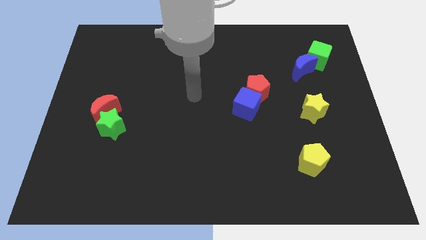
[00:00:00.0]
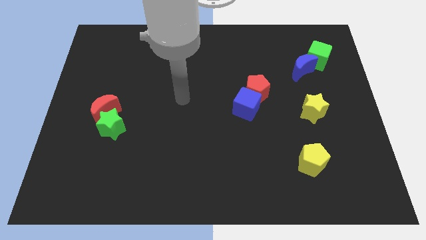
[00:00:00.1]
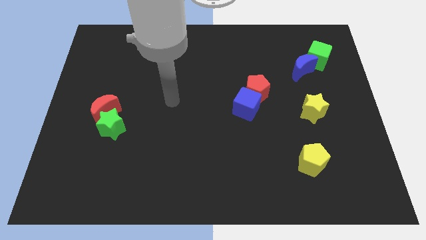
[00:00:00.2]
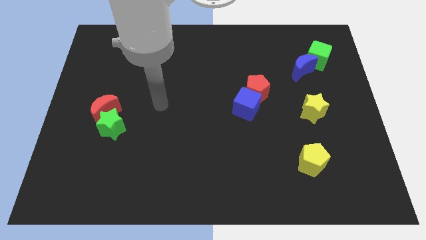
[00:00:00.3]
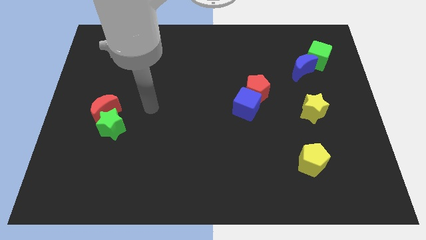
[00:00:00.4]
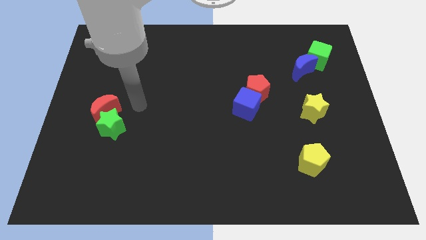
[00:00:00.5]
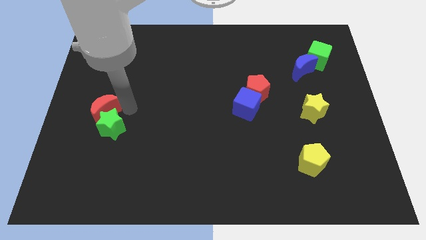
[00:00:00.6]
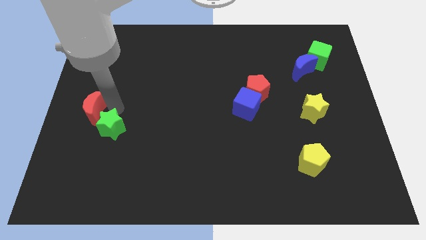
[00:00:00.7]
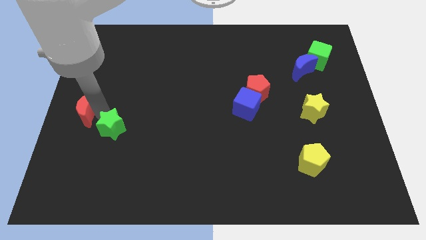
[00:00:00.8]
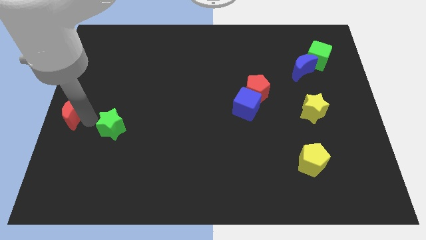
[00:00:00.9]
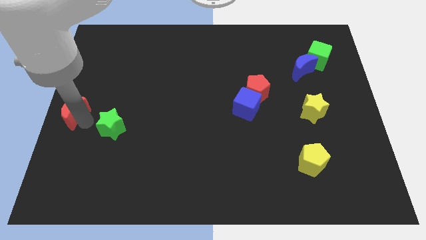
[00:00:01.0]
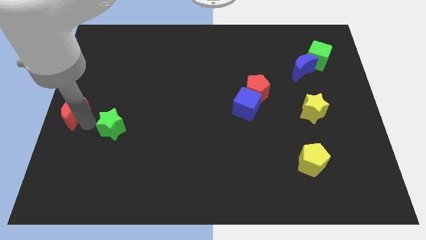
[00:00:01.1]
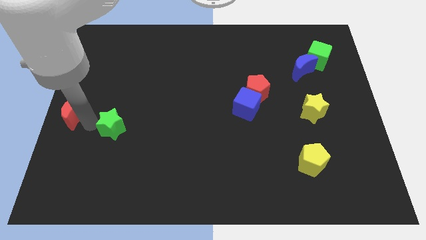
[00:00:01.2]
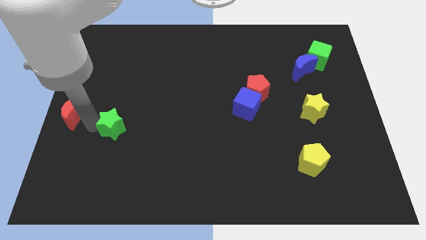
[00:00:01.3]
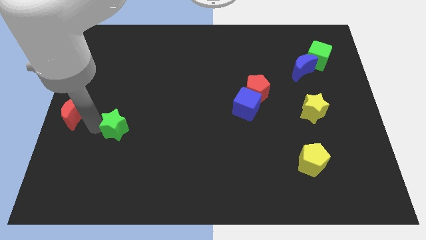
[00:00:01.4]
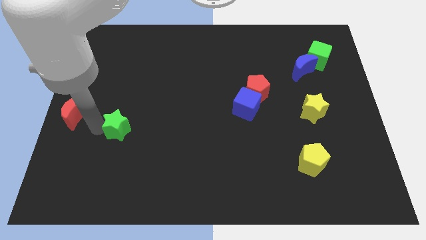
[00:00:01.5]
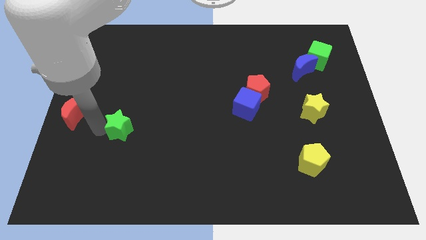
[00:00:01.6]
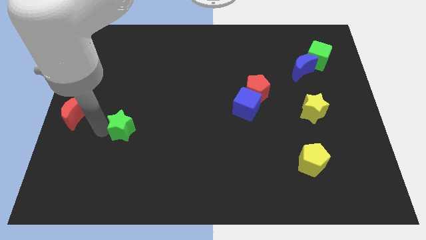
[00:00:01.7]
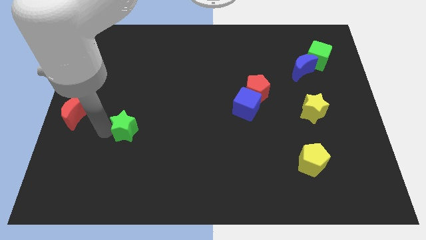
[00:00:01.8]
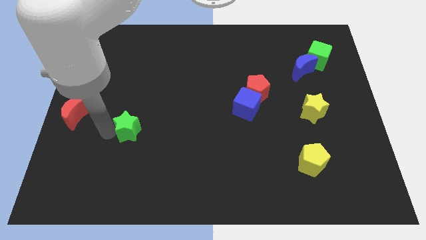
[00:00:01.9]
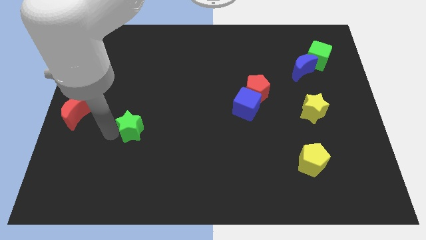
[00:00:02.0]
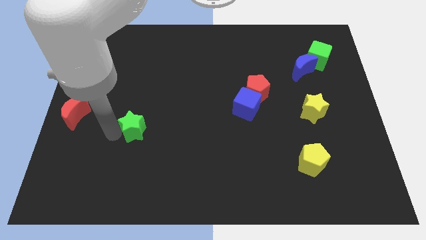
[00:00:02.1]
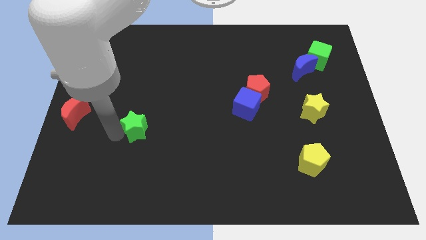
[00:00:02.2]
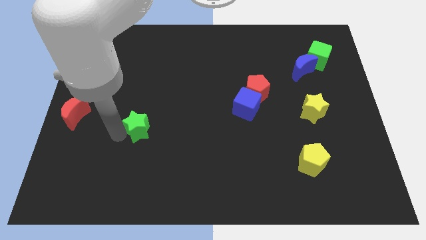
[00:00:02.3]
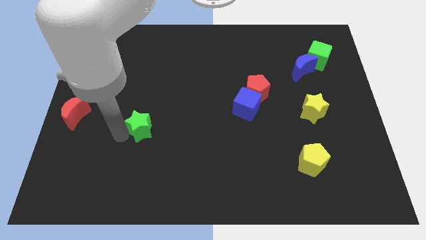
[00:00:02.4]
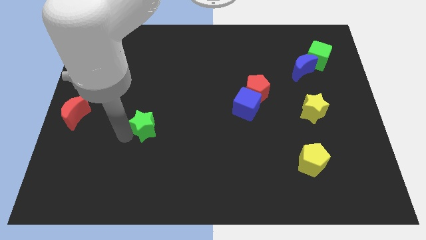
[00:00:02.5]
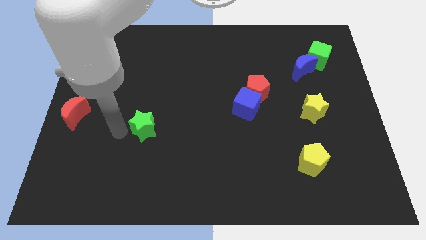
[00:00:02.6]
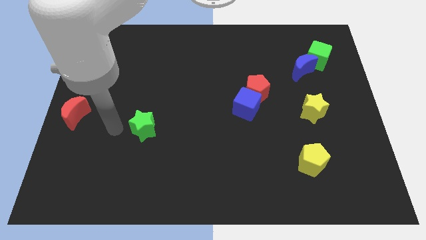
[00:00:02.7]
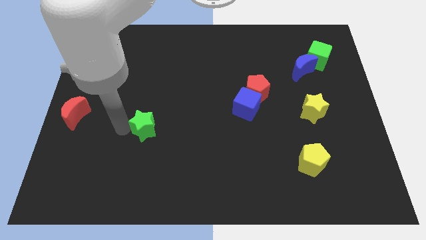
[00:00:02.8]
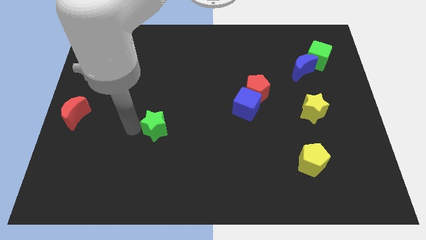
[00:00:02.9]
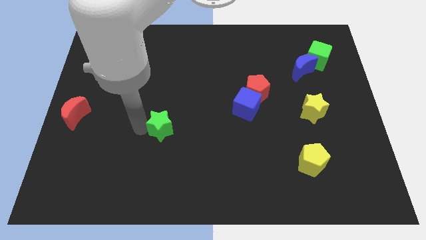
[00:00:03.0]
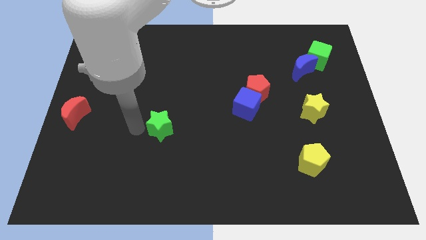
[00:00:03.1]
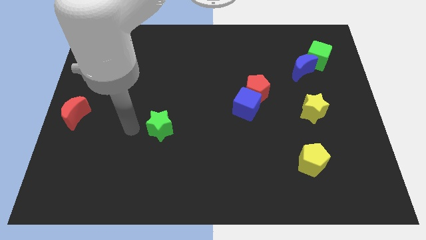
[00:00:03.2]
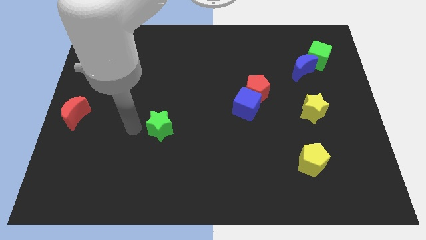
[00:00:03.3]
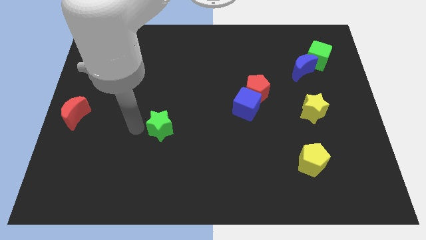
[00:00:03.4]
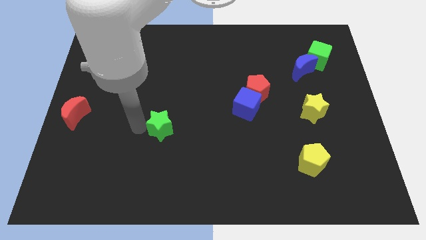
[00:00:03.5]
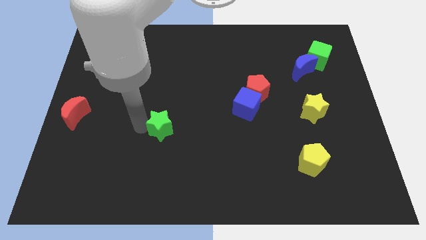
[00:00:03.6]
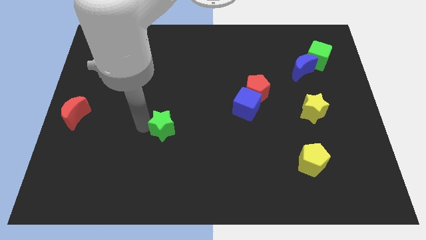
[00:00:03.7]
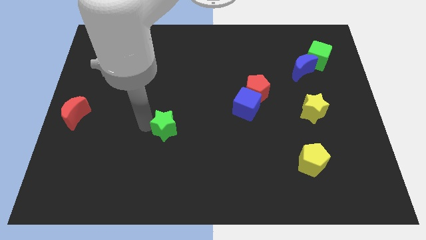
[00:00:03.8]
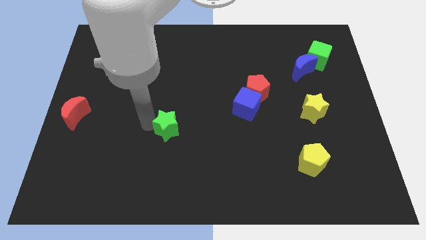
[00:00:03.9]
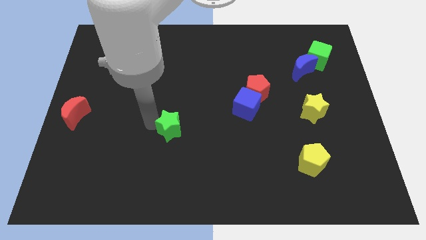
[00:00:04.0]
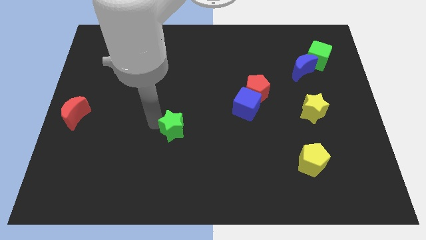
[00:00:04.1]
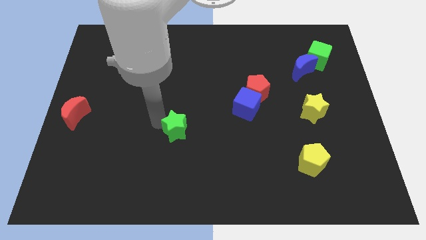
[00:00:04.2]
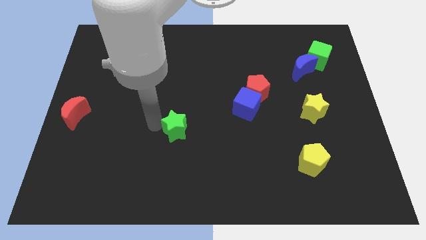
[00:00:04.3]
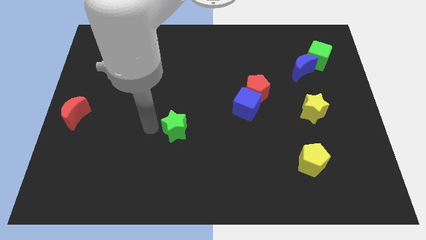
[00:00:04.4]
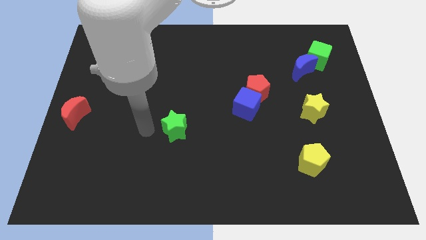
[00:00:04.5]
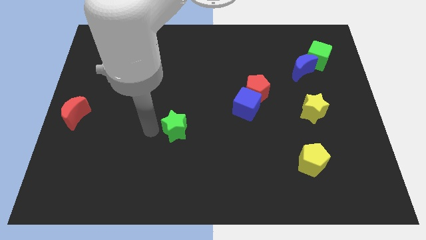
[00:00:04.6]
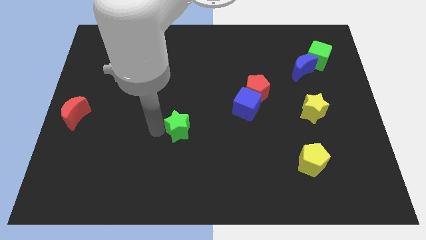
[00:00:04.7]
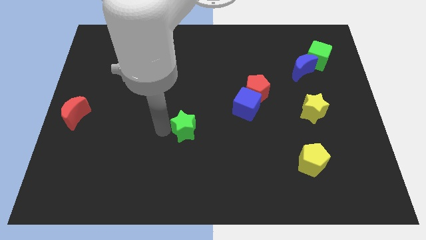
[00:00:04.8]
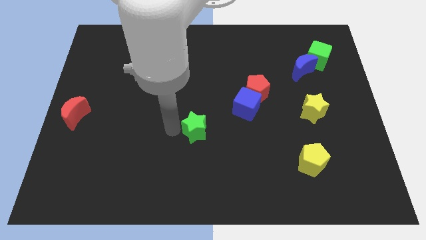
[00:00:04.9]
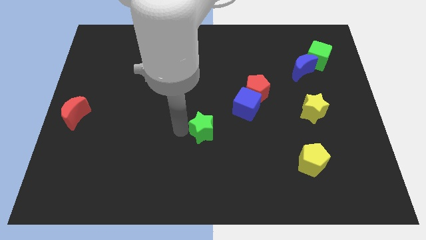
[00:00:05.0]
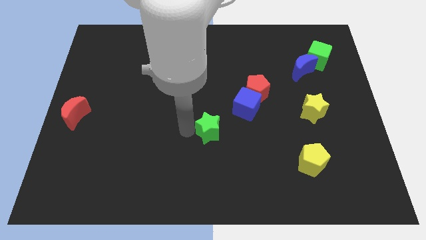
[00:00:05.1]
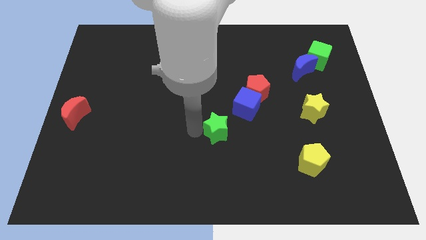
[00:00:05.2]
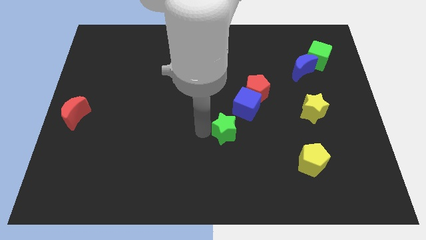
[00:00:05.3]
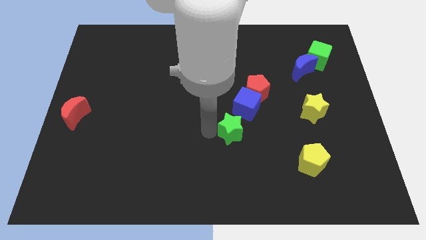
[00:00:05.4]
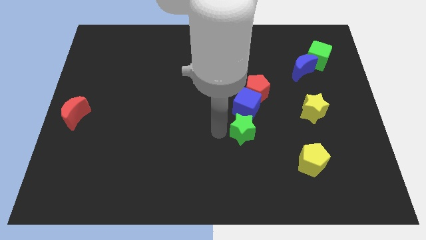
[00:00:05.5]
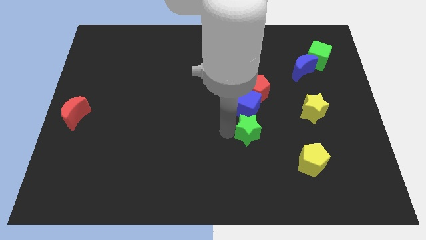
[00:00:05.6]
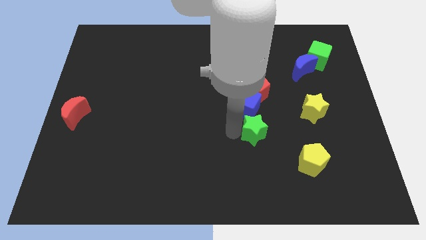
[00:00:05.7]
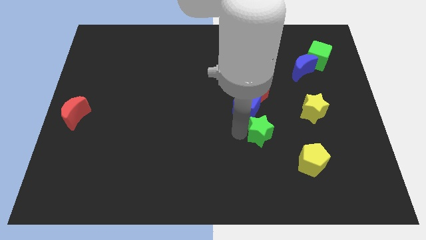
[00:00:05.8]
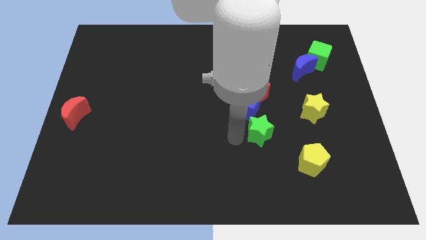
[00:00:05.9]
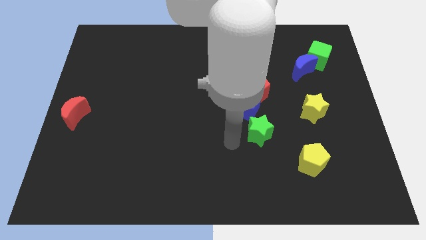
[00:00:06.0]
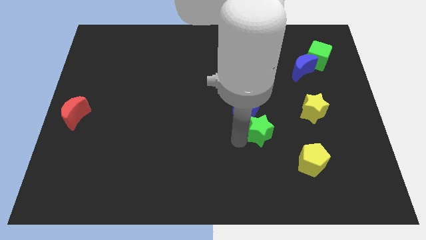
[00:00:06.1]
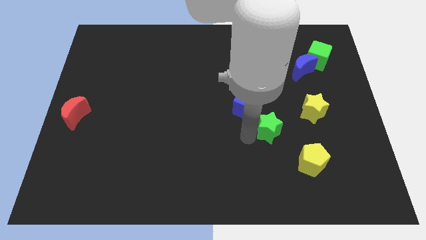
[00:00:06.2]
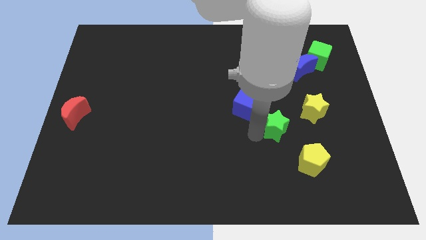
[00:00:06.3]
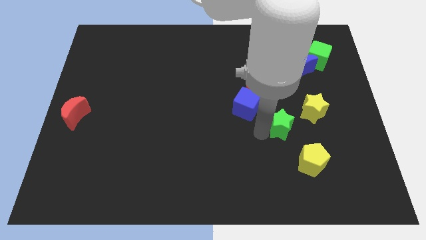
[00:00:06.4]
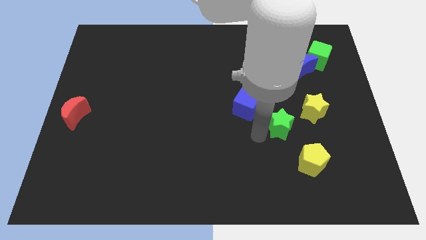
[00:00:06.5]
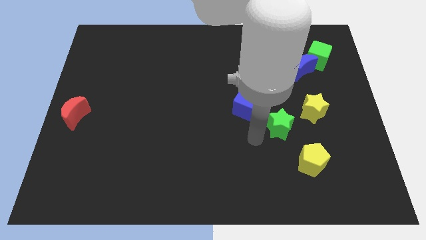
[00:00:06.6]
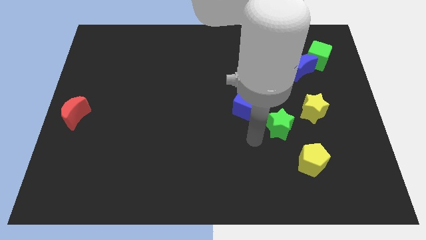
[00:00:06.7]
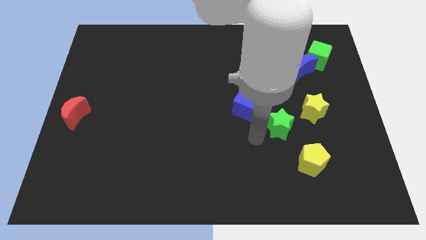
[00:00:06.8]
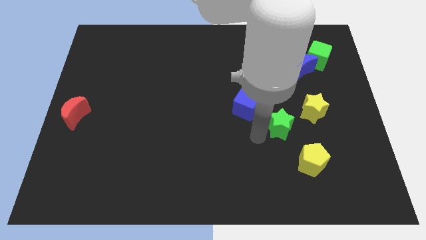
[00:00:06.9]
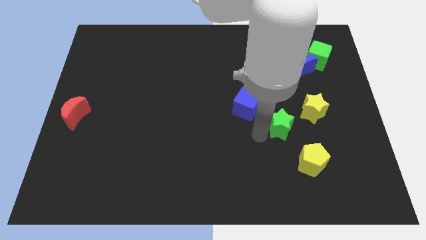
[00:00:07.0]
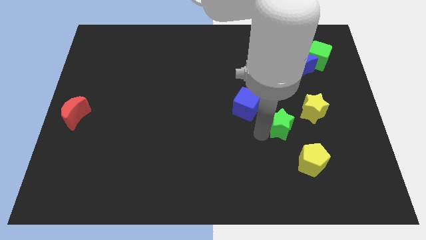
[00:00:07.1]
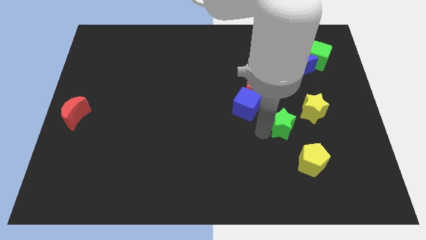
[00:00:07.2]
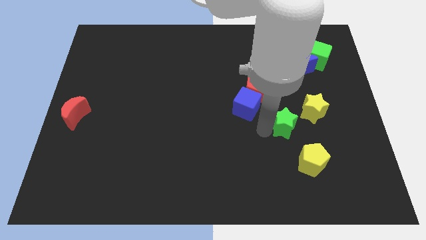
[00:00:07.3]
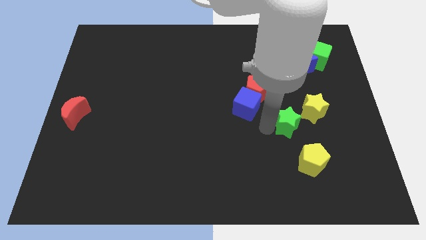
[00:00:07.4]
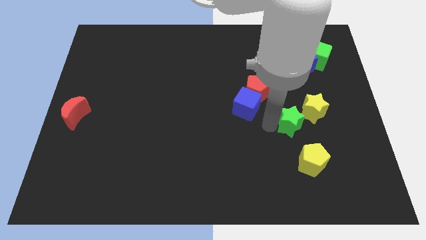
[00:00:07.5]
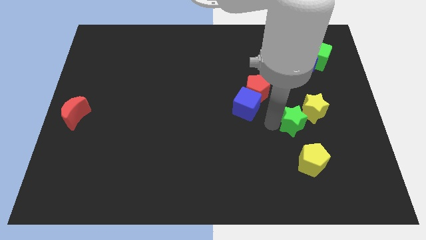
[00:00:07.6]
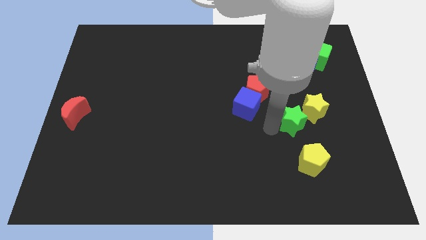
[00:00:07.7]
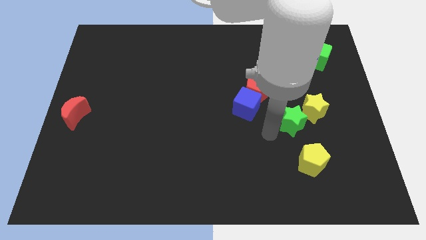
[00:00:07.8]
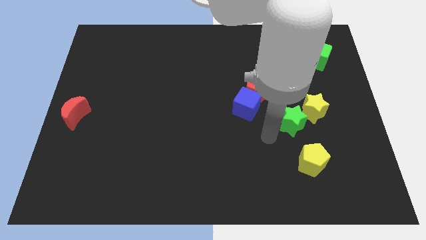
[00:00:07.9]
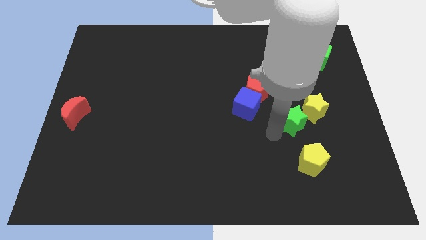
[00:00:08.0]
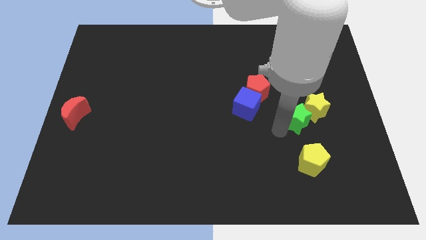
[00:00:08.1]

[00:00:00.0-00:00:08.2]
put the green star close to the yellow star
